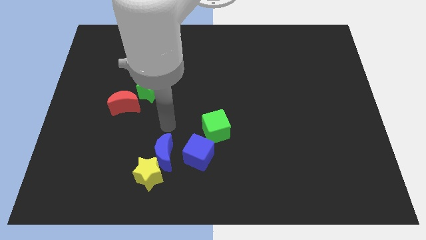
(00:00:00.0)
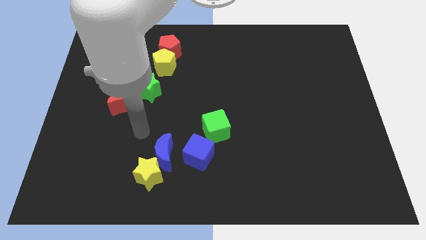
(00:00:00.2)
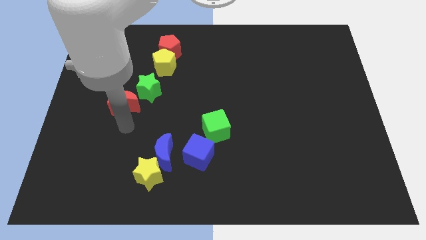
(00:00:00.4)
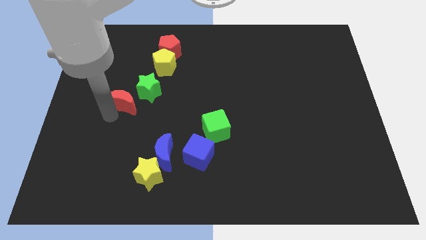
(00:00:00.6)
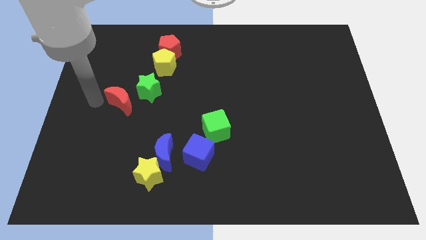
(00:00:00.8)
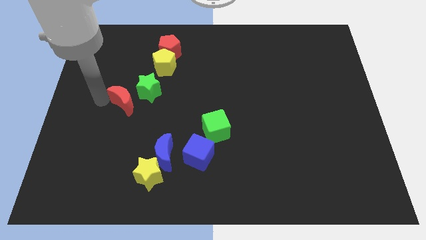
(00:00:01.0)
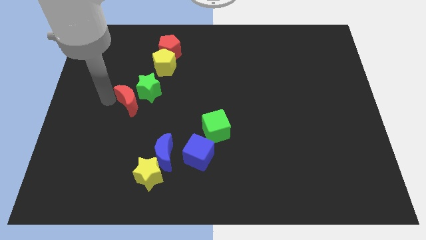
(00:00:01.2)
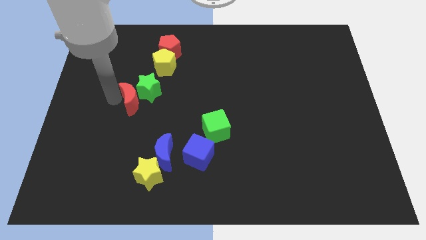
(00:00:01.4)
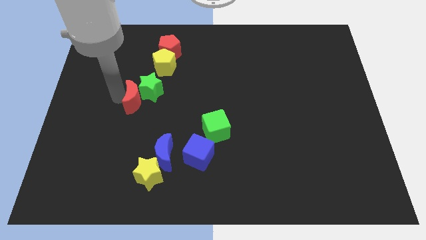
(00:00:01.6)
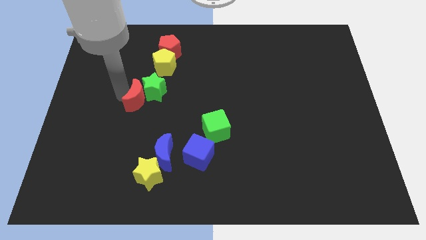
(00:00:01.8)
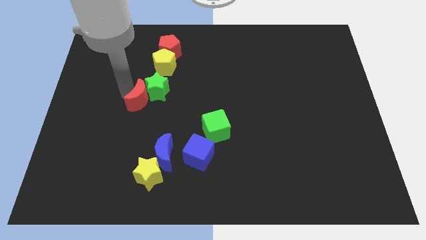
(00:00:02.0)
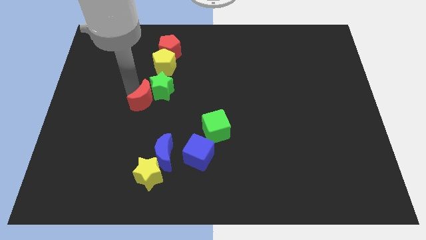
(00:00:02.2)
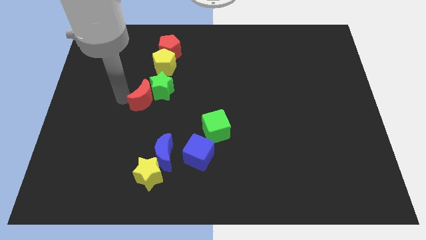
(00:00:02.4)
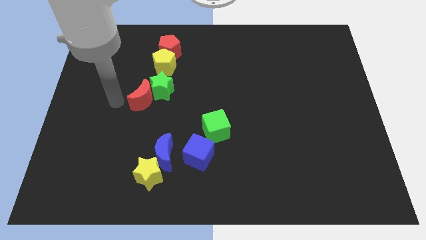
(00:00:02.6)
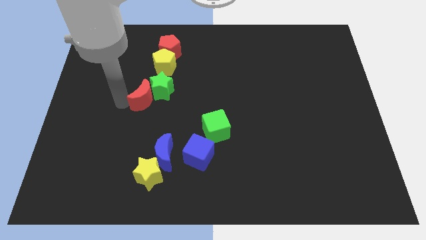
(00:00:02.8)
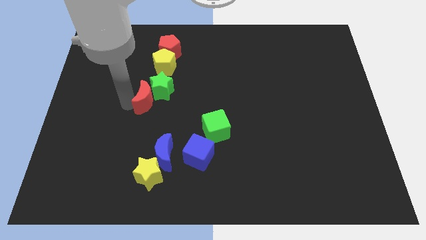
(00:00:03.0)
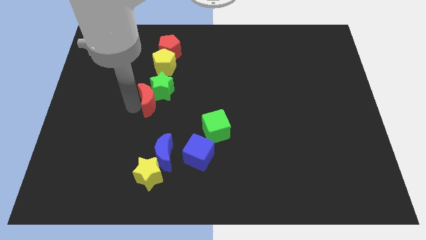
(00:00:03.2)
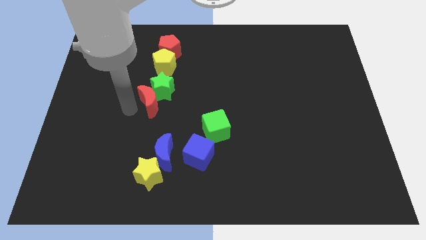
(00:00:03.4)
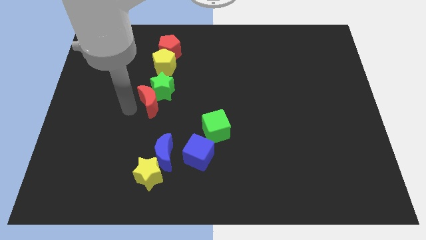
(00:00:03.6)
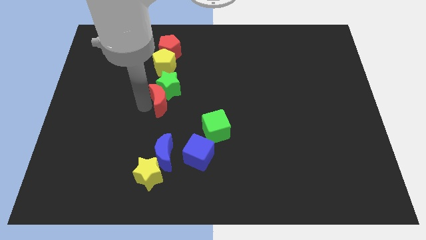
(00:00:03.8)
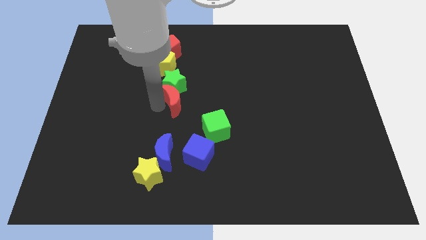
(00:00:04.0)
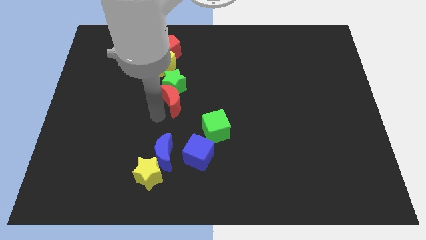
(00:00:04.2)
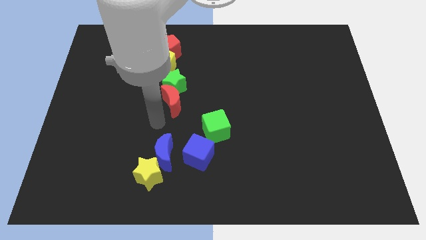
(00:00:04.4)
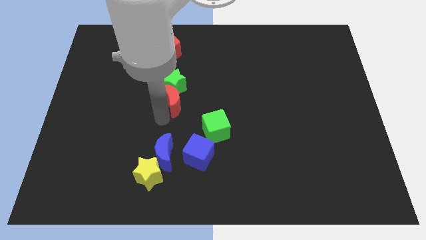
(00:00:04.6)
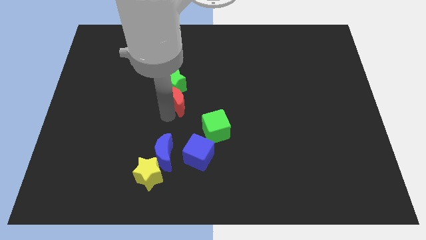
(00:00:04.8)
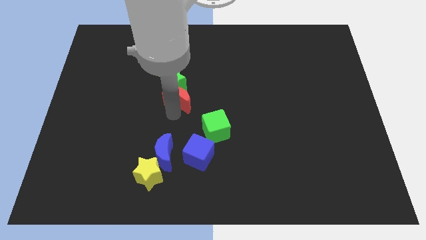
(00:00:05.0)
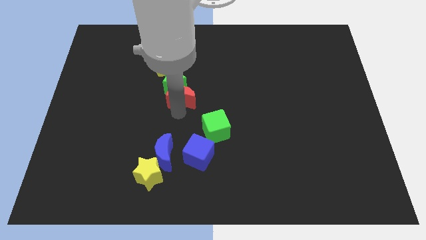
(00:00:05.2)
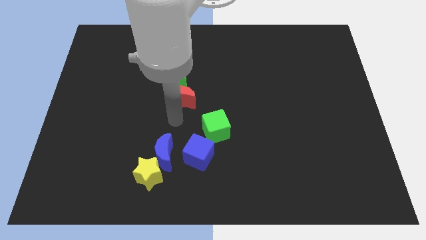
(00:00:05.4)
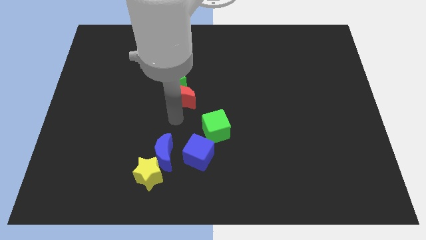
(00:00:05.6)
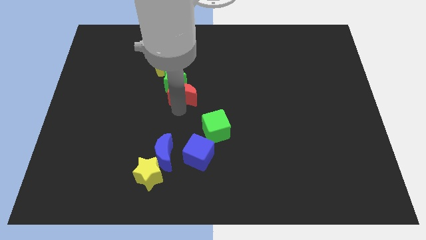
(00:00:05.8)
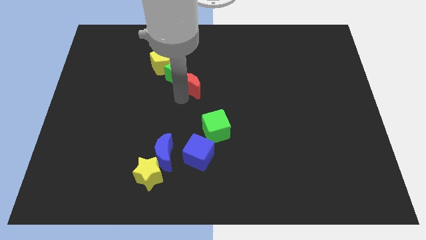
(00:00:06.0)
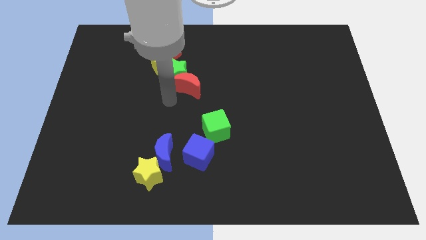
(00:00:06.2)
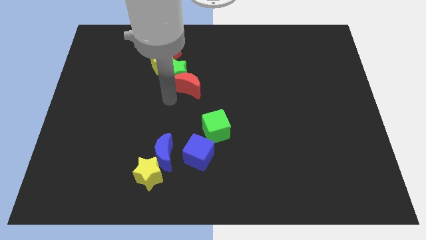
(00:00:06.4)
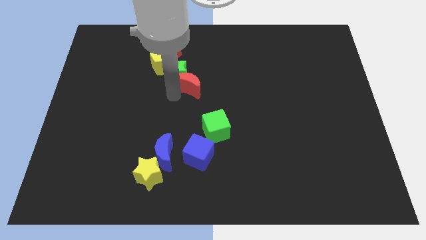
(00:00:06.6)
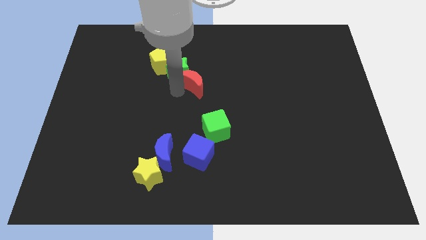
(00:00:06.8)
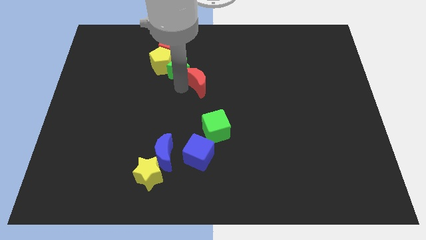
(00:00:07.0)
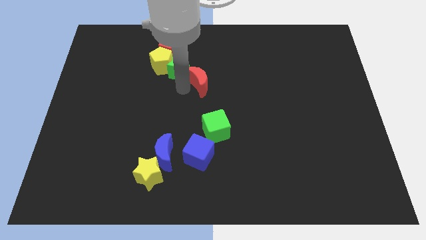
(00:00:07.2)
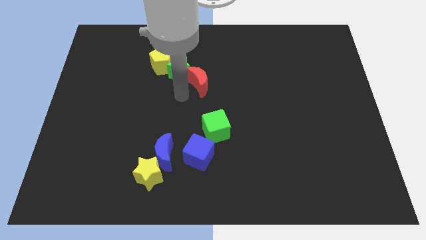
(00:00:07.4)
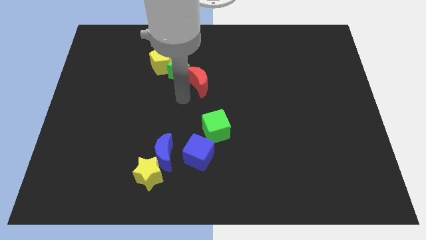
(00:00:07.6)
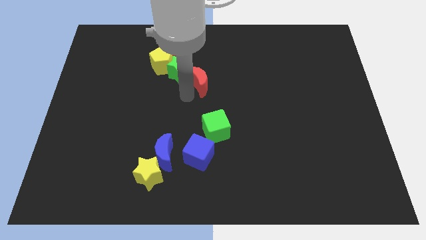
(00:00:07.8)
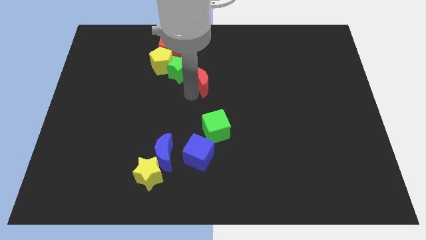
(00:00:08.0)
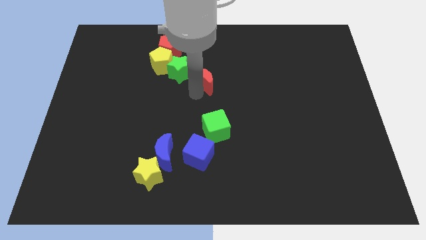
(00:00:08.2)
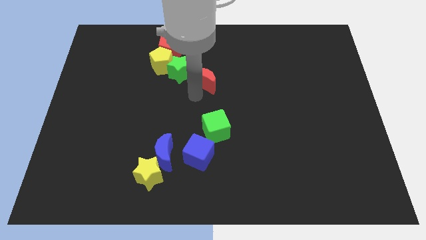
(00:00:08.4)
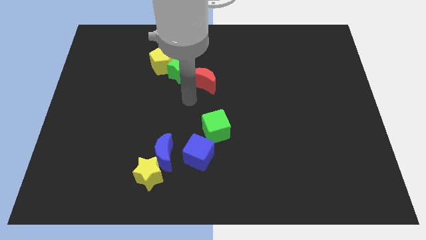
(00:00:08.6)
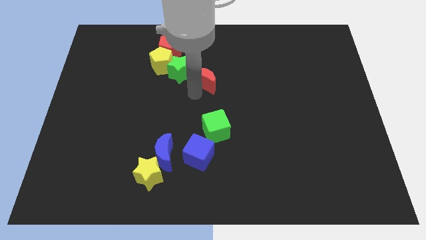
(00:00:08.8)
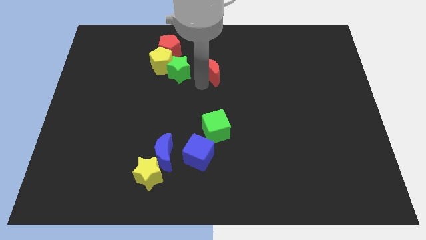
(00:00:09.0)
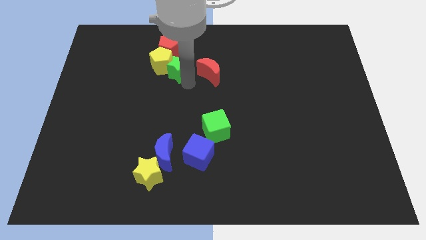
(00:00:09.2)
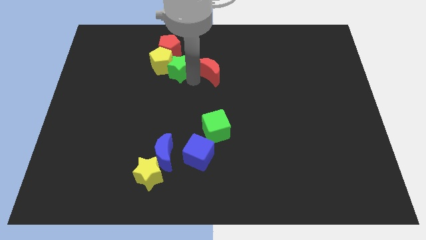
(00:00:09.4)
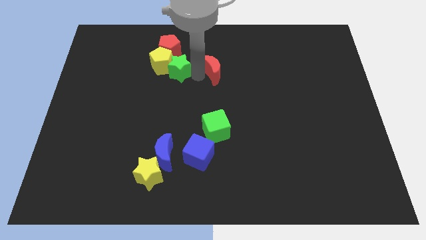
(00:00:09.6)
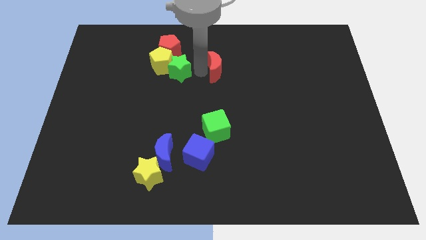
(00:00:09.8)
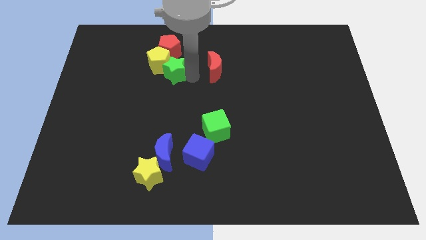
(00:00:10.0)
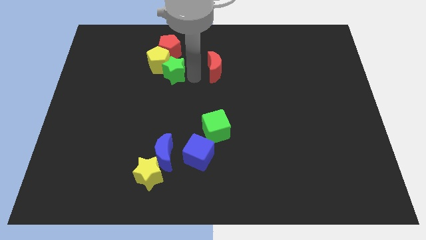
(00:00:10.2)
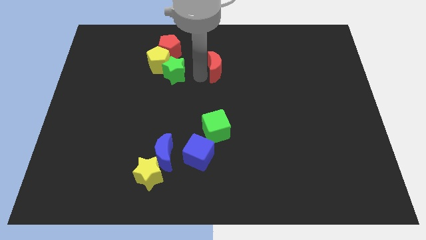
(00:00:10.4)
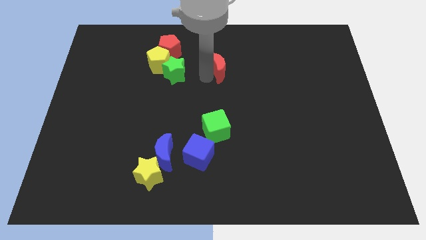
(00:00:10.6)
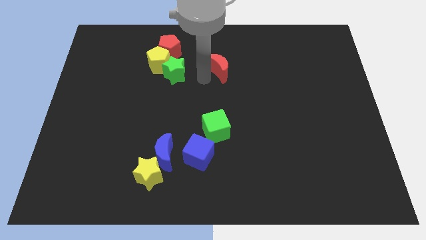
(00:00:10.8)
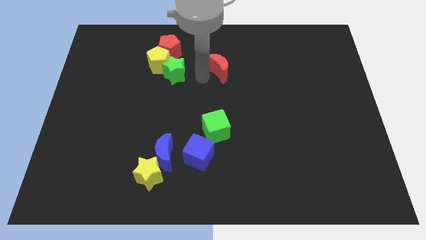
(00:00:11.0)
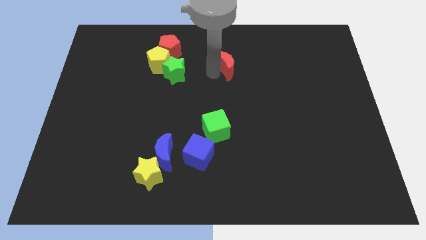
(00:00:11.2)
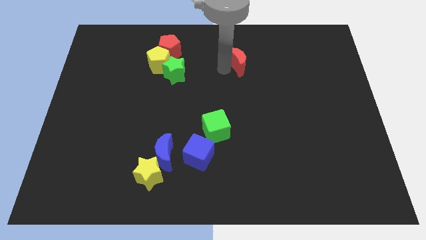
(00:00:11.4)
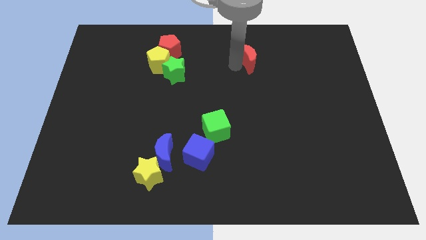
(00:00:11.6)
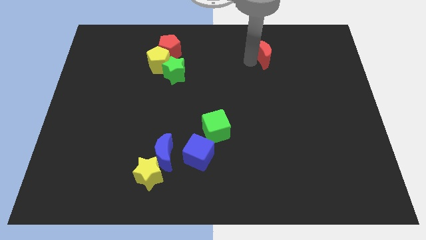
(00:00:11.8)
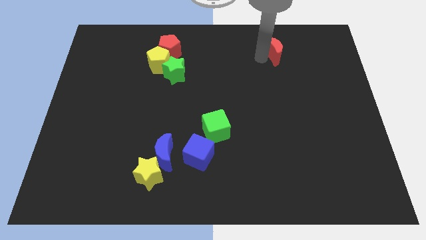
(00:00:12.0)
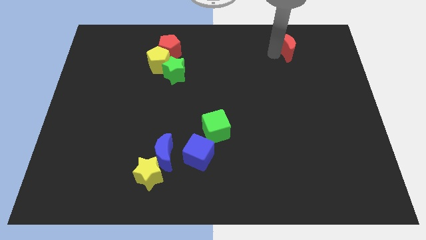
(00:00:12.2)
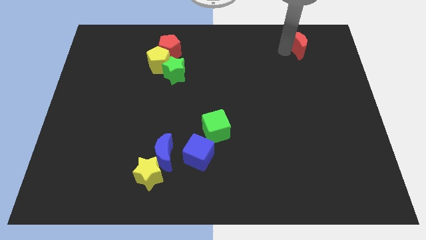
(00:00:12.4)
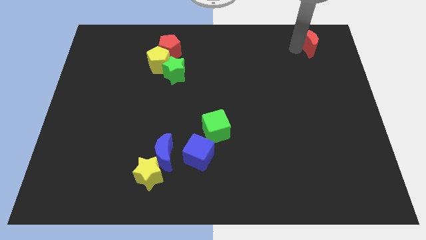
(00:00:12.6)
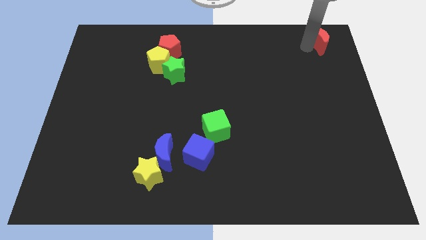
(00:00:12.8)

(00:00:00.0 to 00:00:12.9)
push the red moon to the top right
